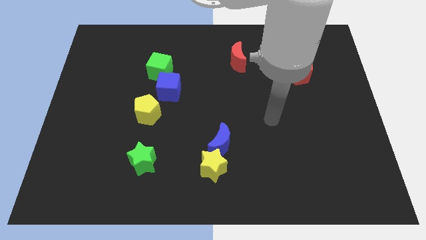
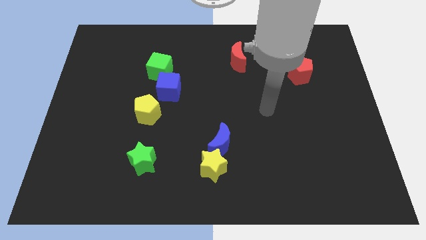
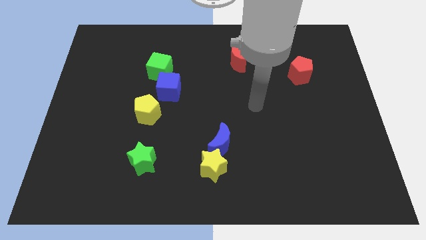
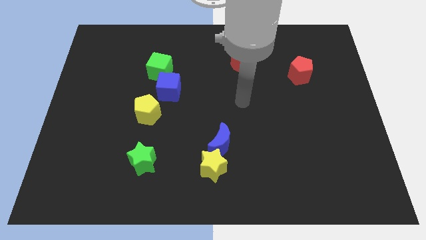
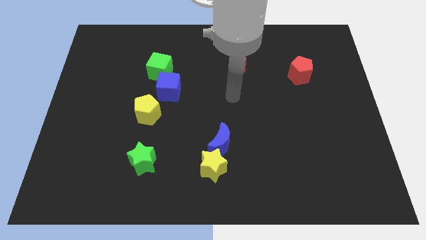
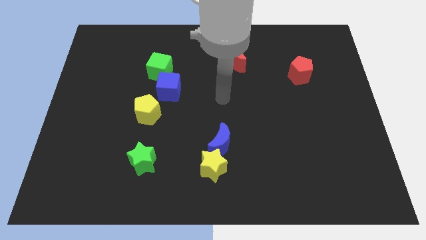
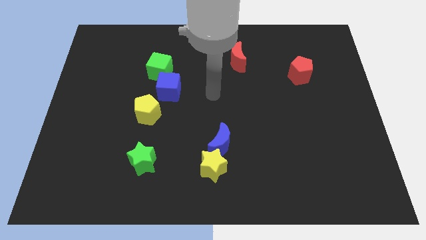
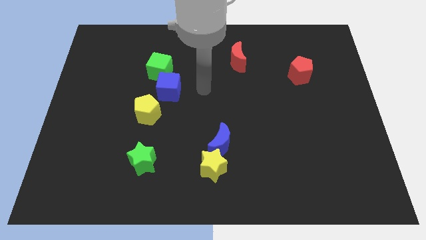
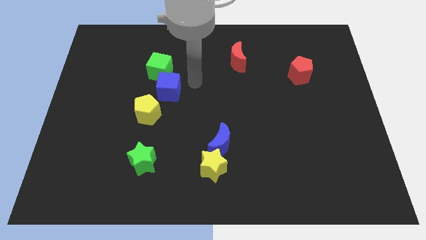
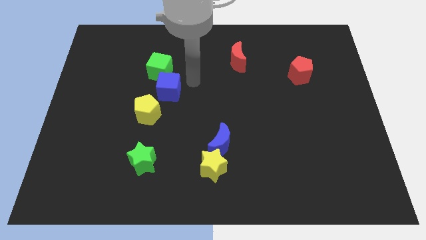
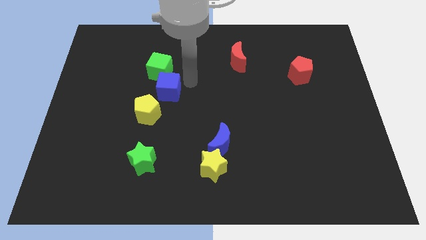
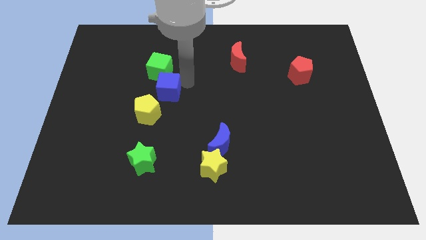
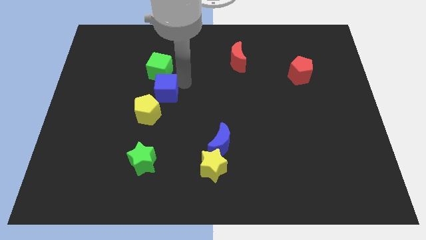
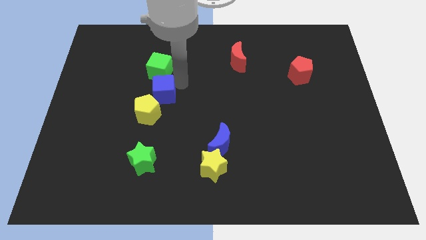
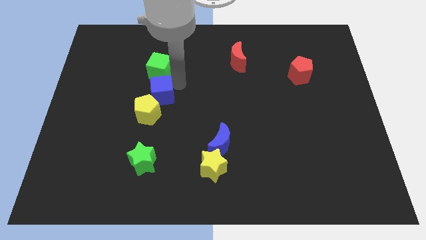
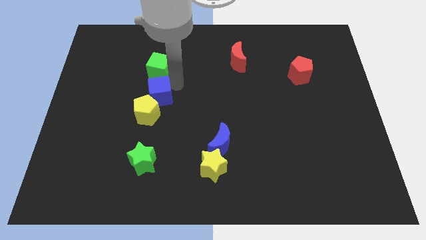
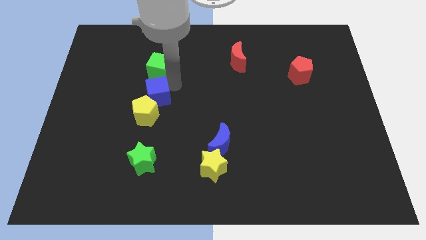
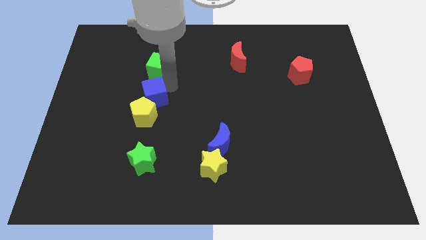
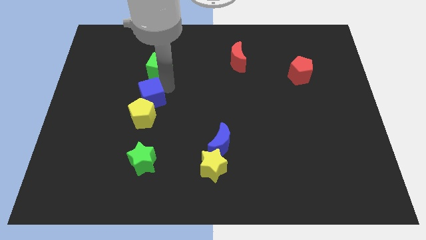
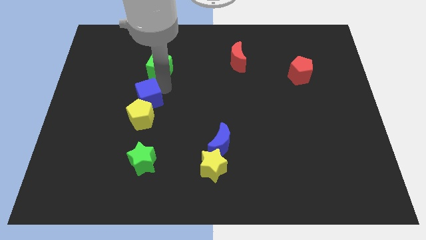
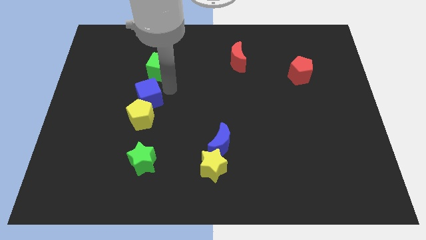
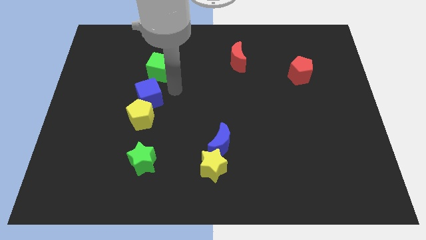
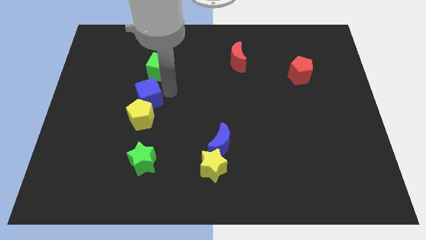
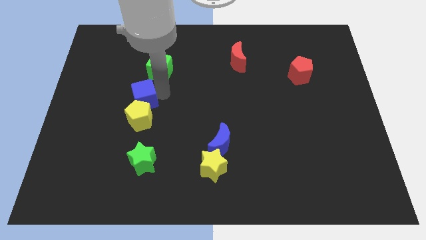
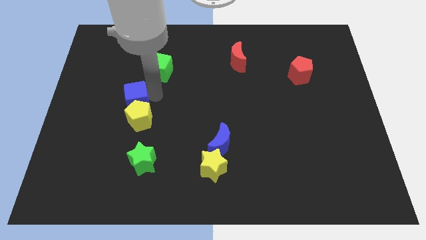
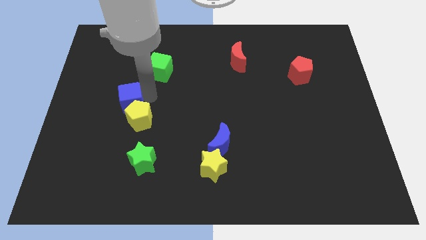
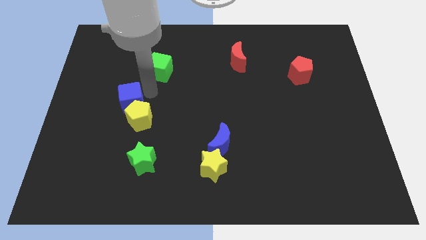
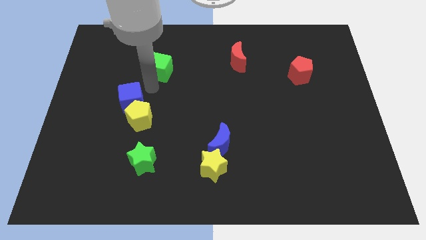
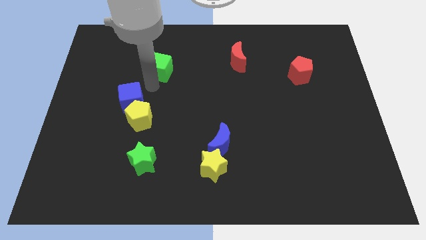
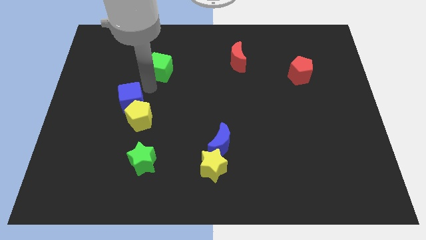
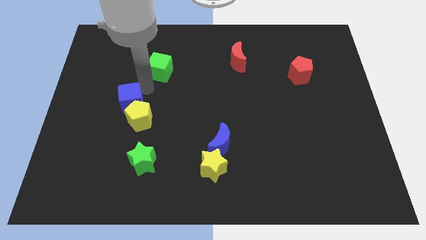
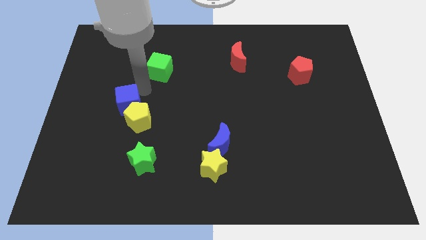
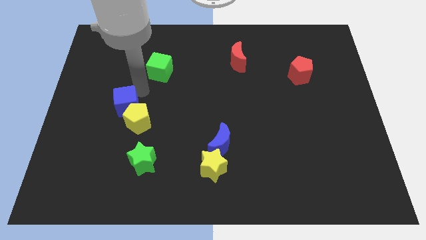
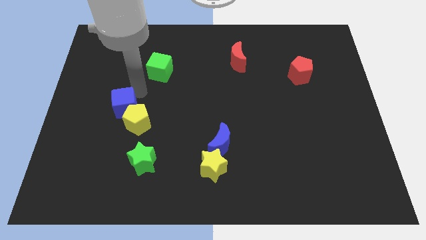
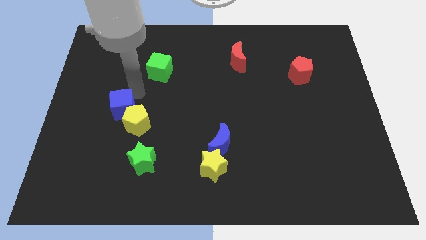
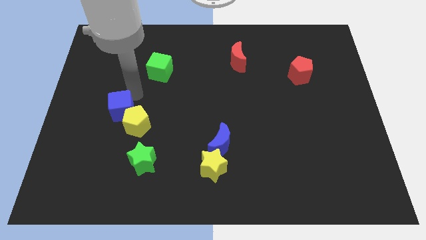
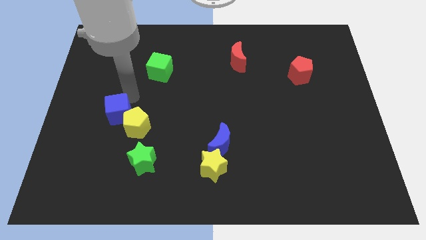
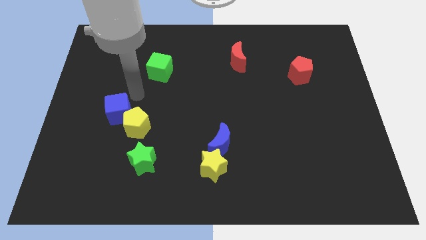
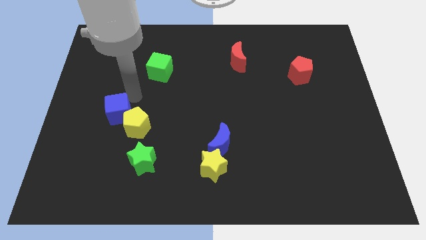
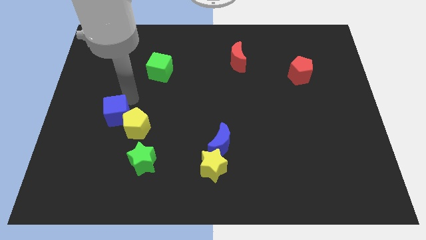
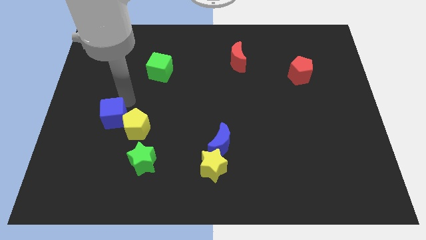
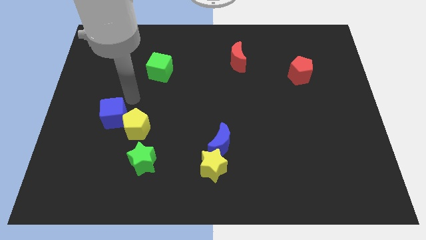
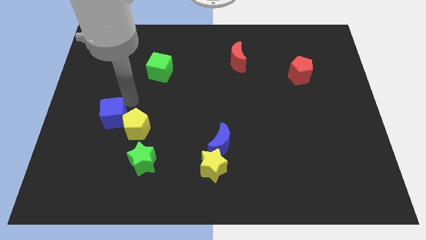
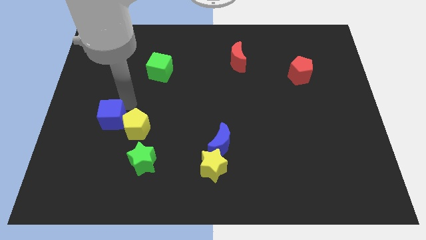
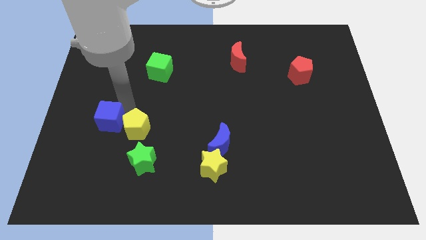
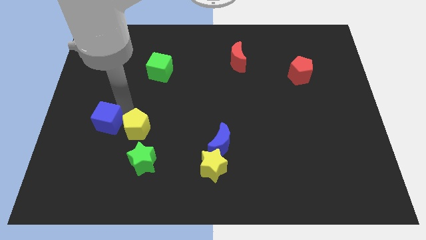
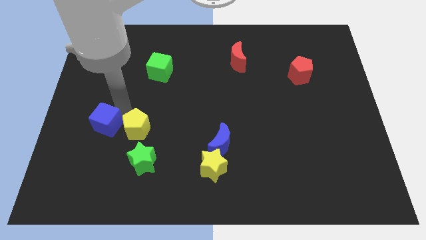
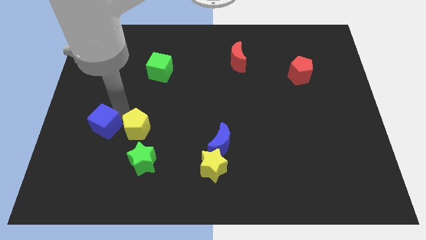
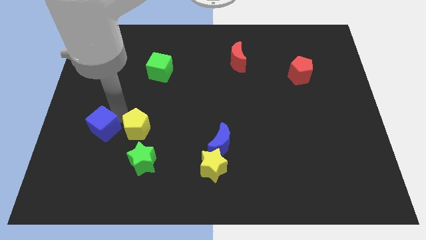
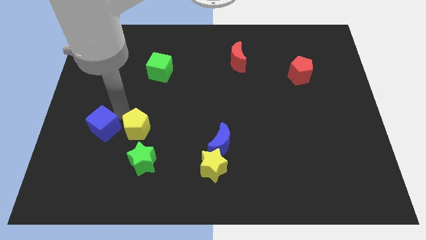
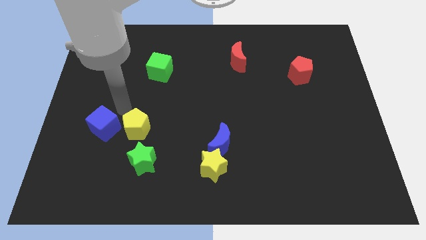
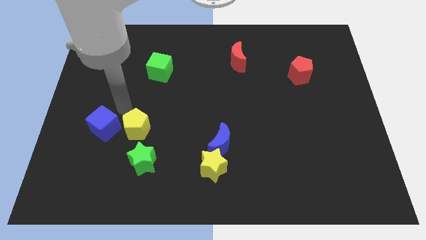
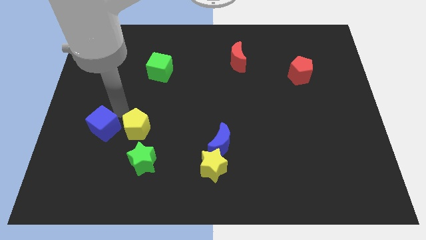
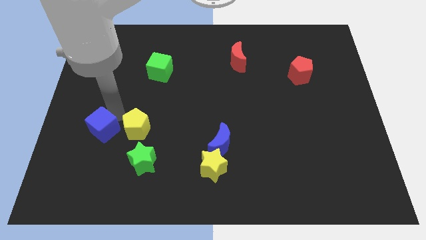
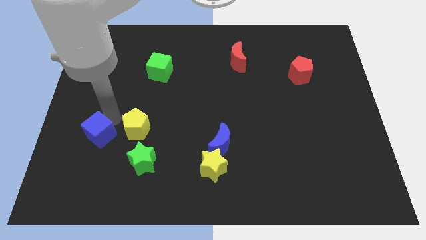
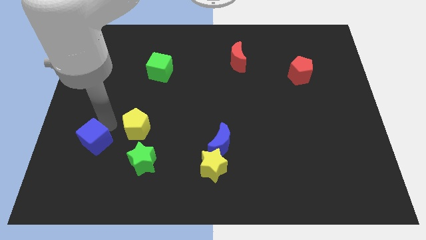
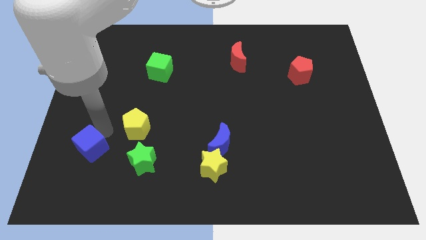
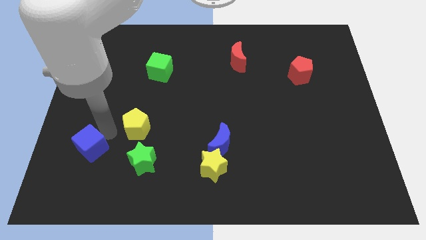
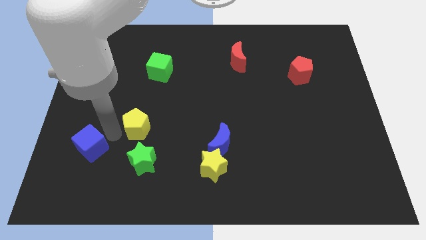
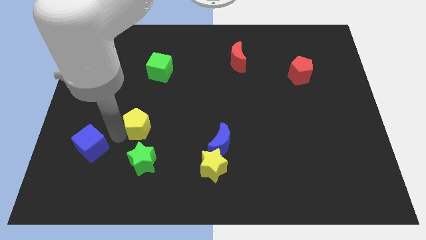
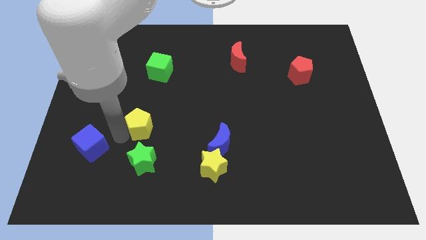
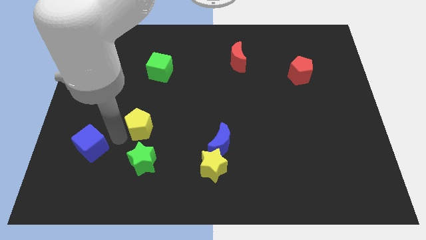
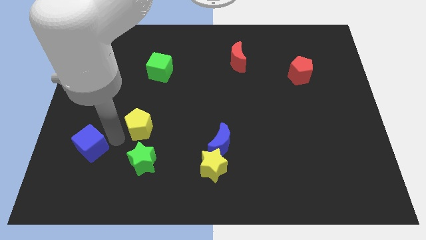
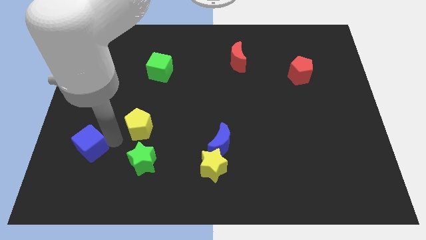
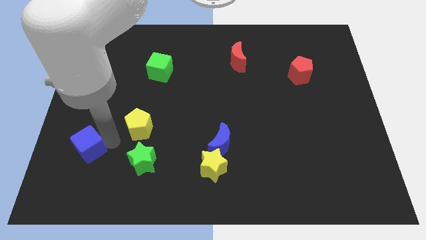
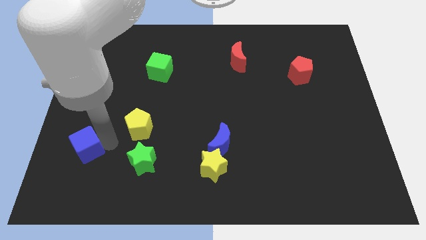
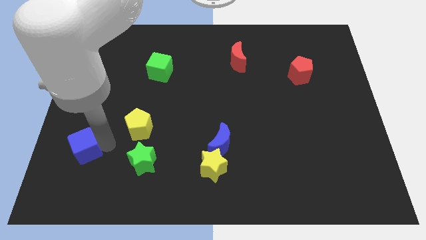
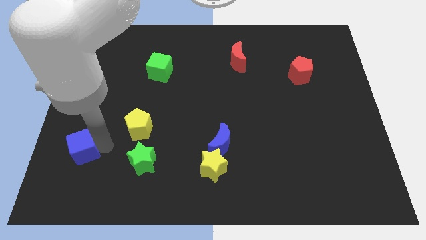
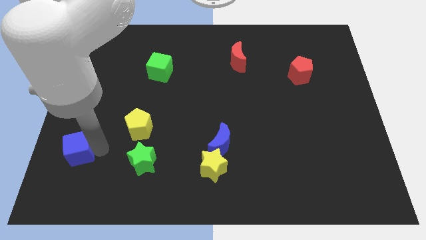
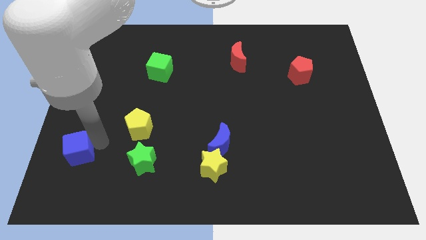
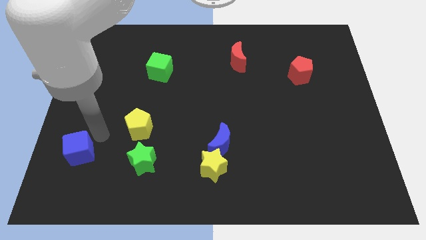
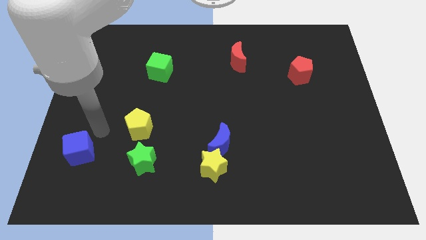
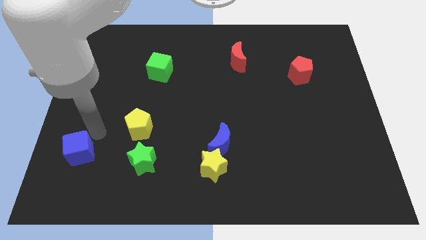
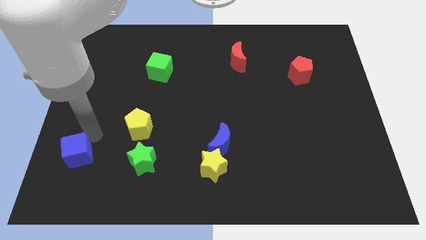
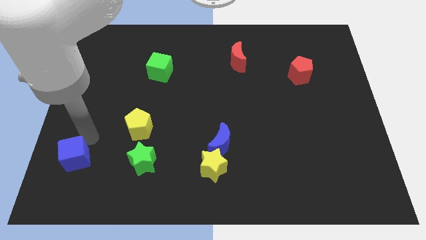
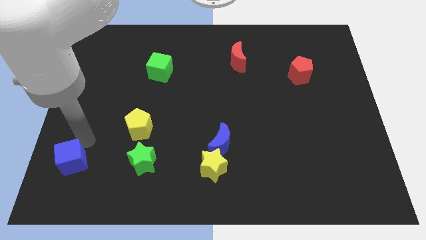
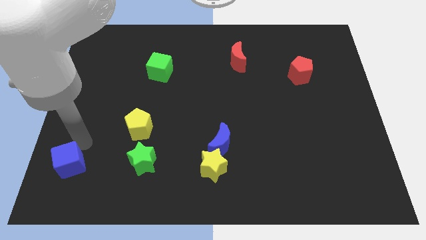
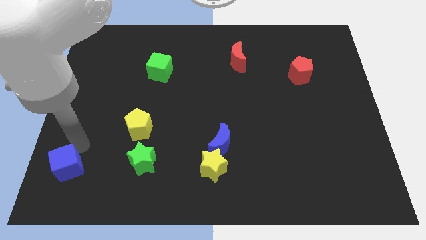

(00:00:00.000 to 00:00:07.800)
push the blue cube to the bottom left of the board
